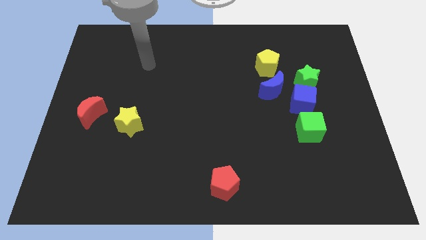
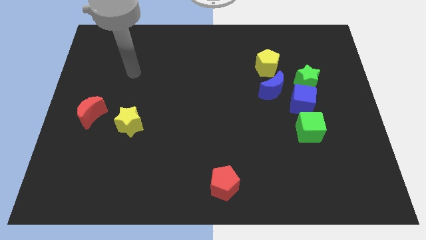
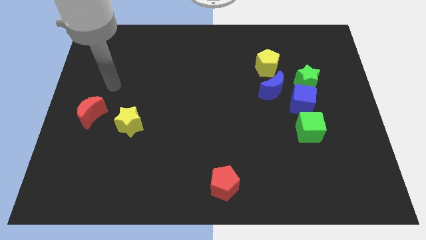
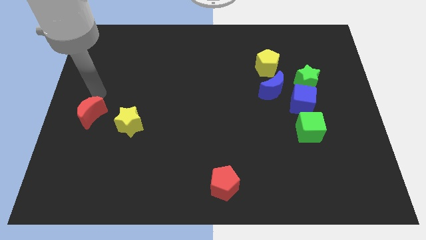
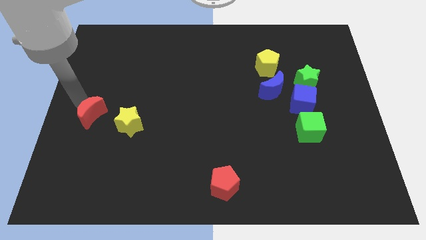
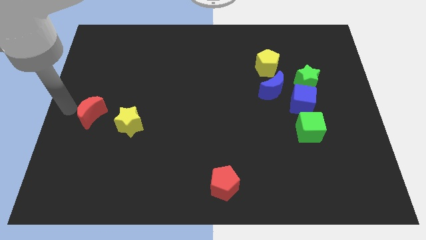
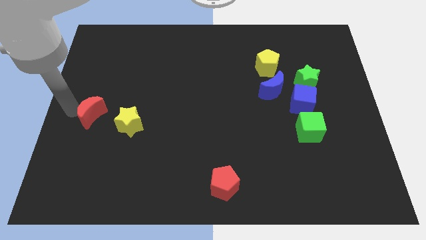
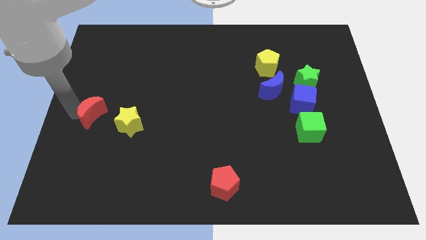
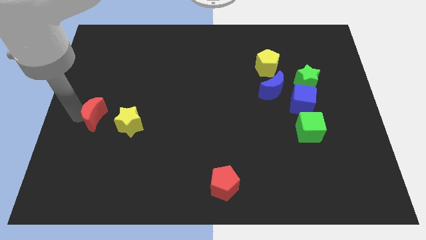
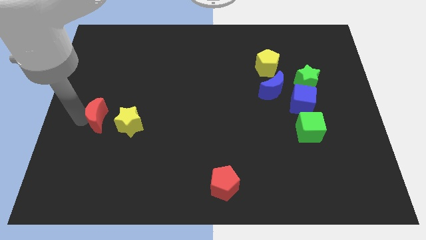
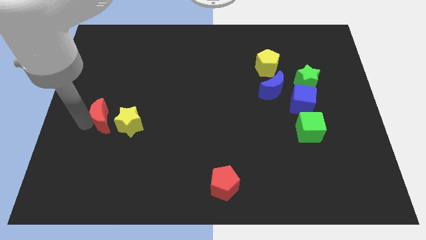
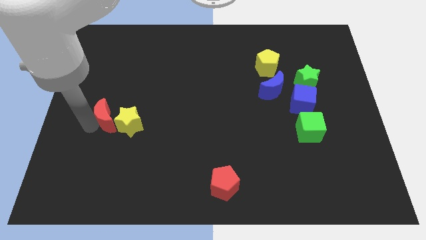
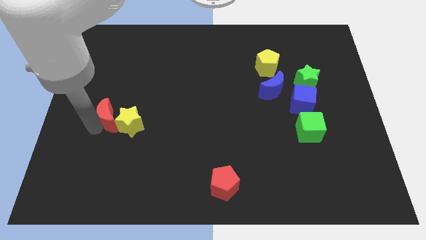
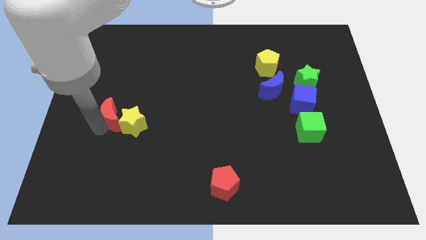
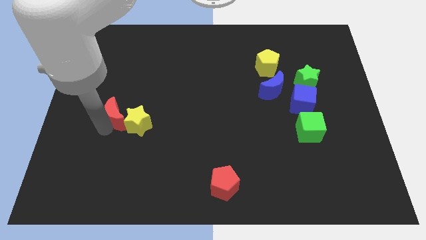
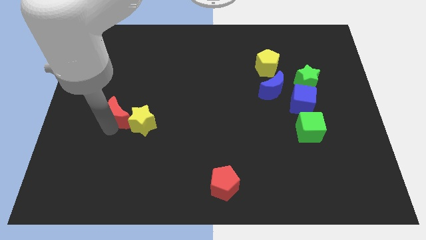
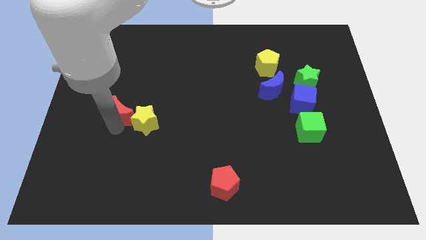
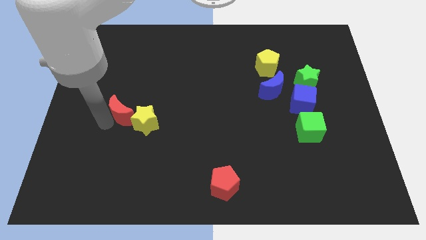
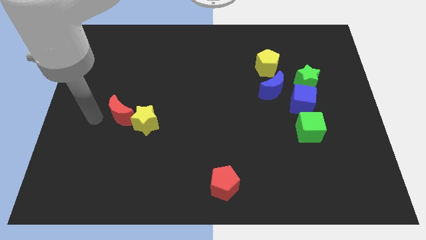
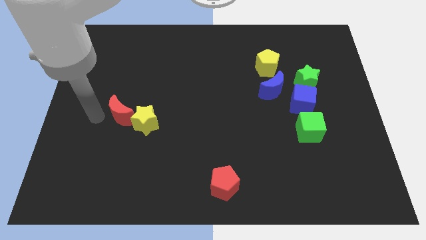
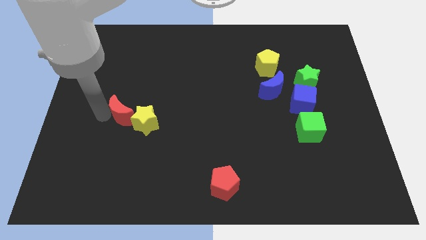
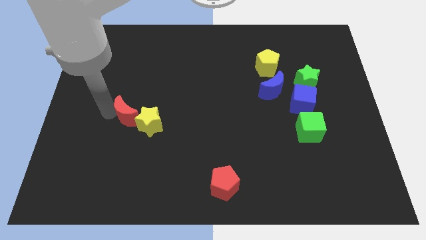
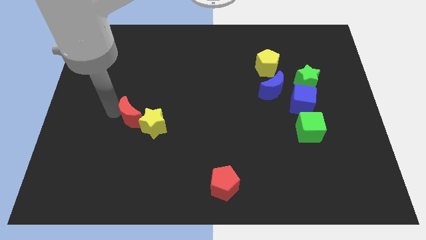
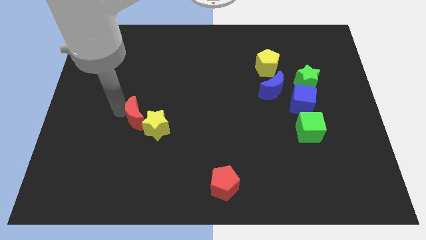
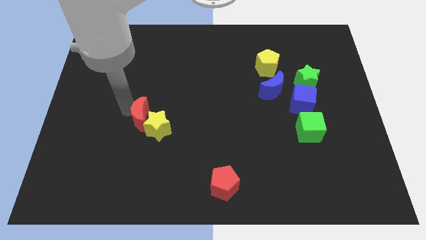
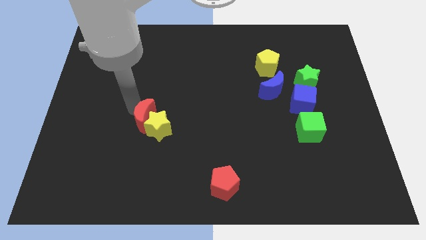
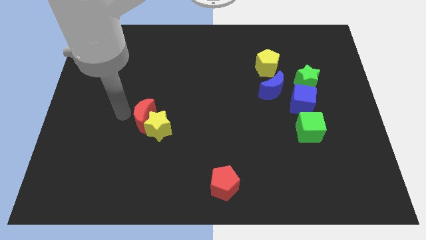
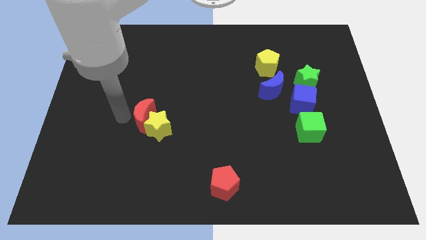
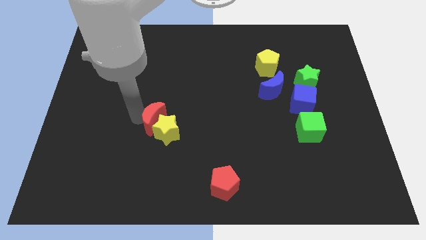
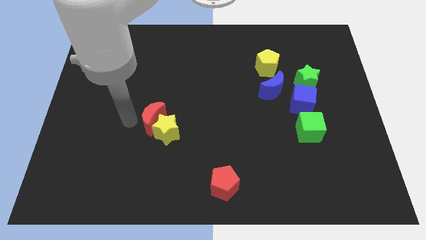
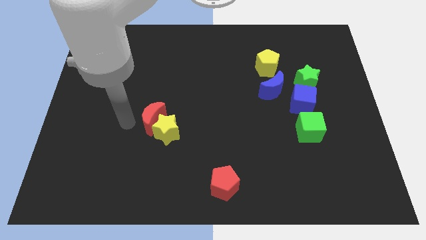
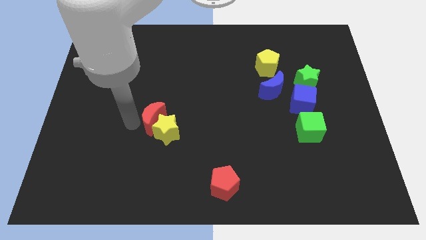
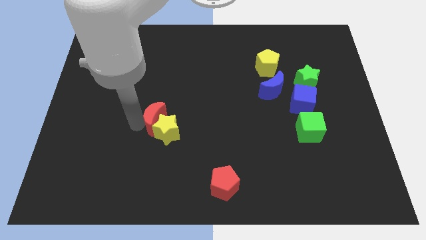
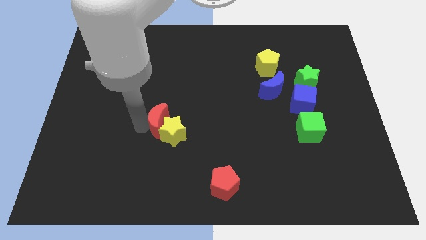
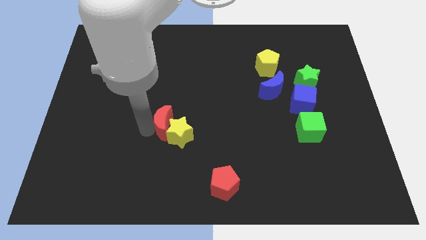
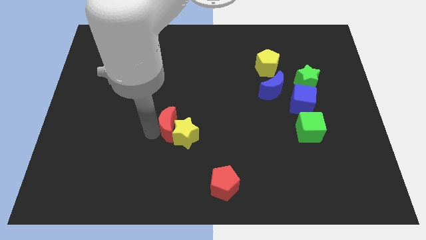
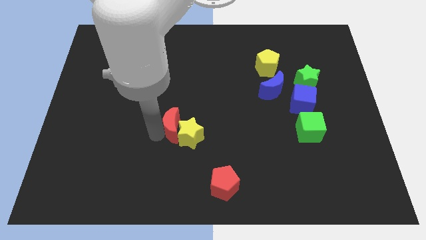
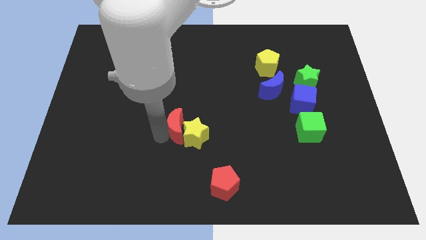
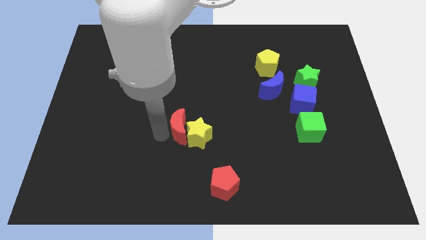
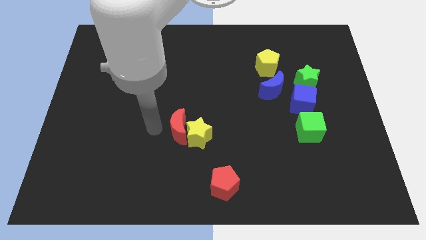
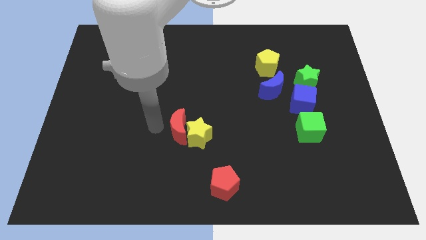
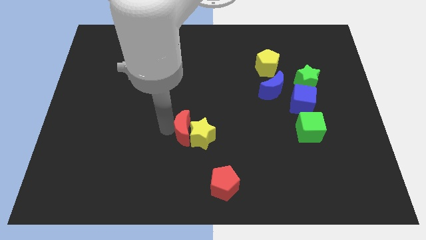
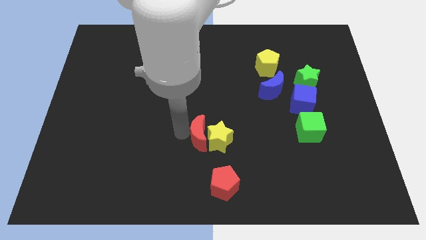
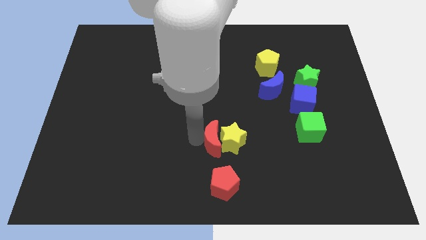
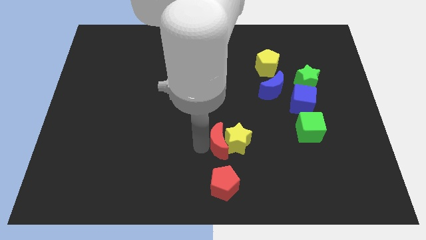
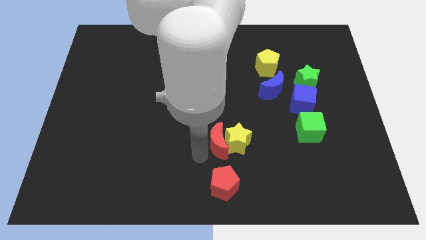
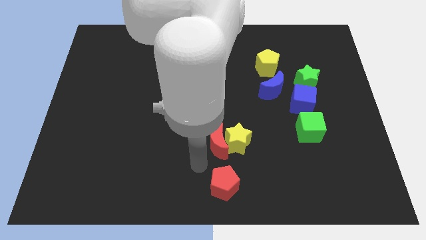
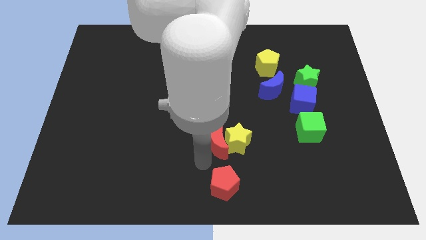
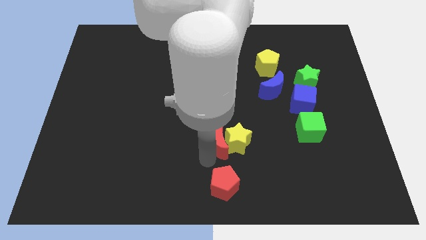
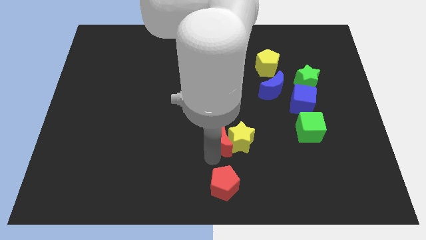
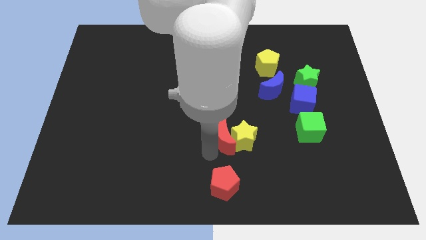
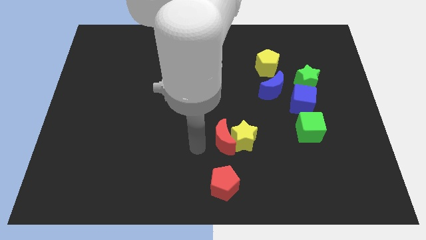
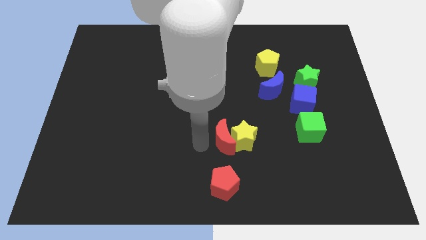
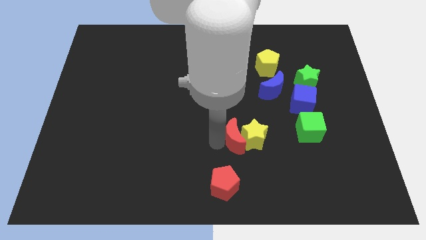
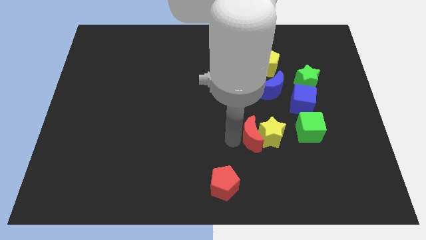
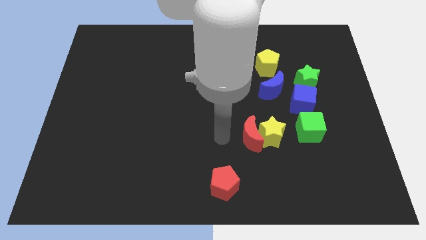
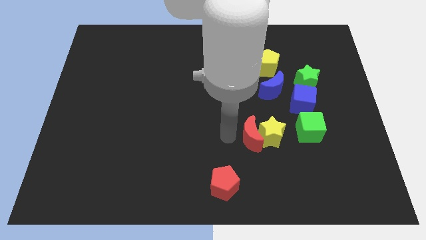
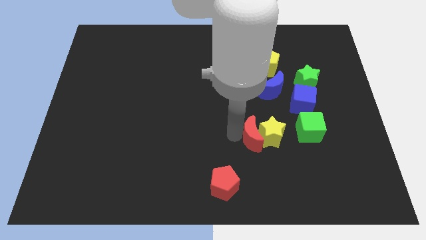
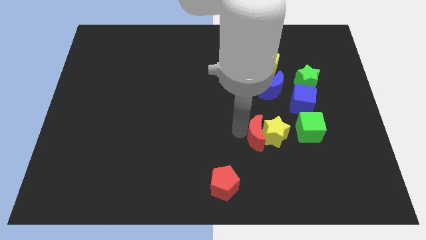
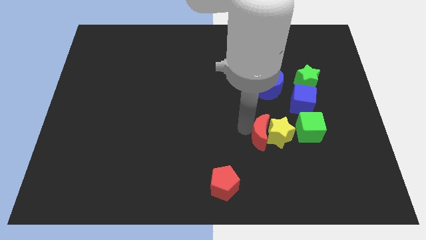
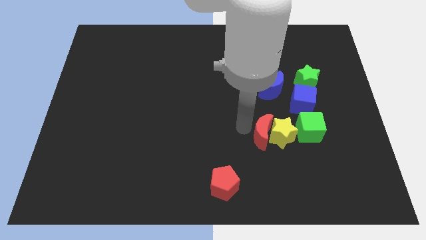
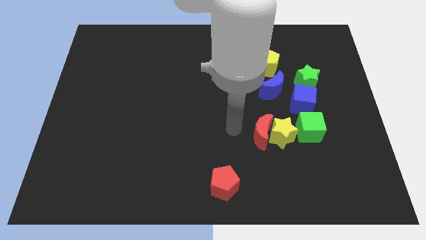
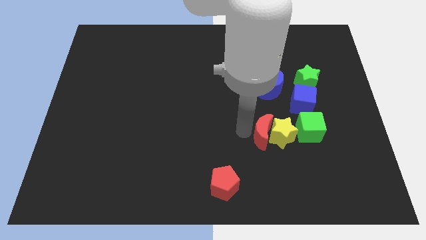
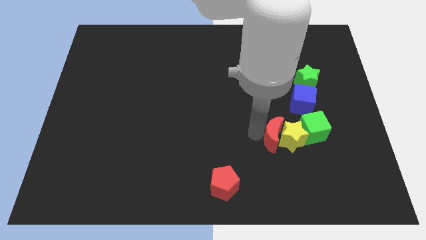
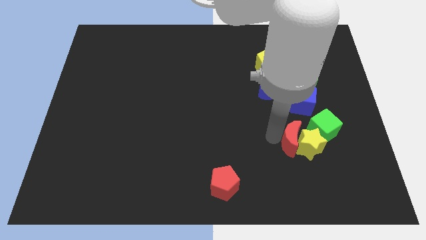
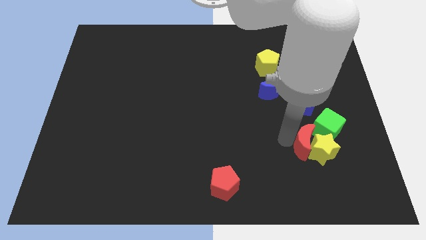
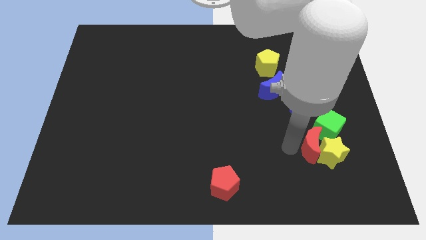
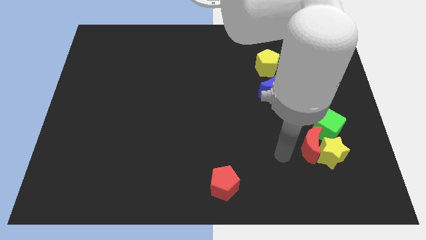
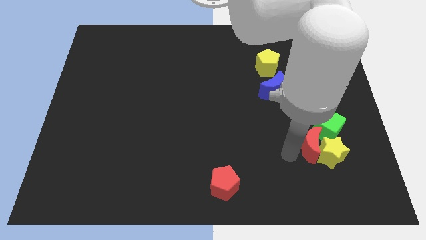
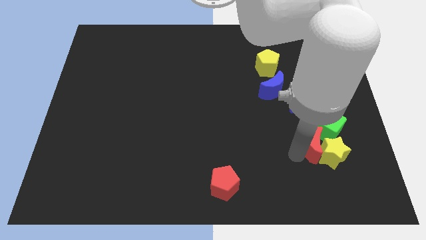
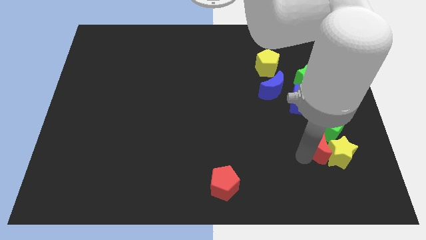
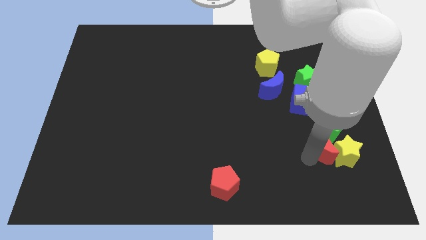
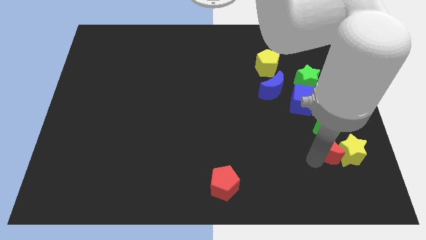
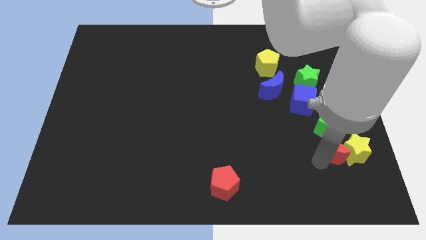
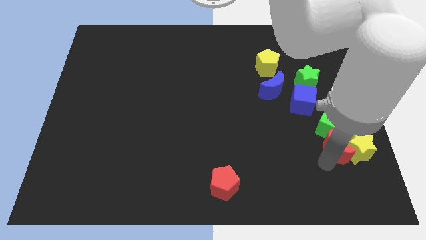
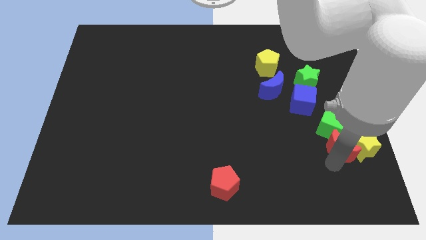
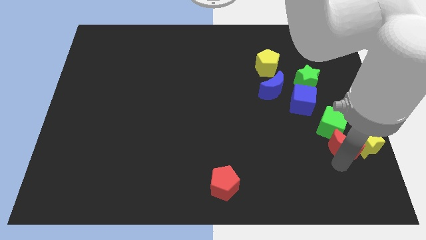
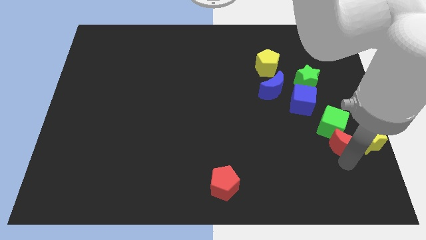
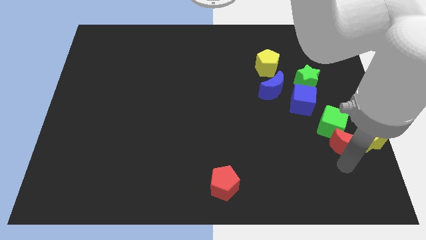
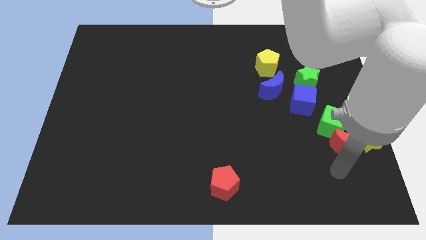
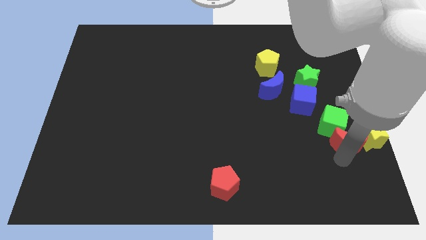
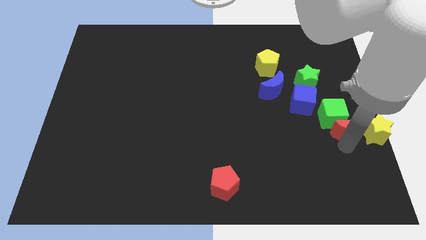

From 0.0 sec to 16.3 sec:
move the red moon to the right side
